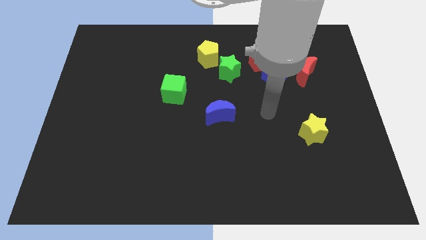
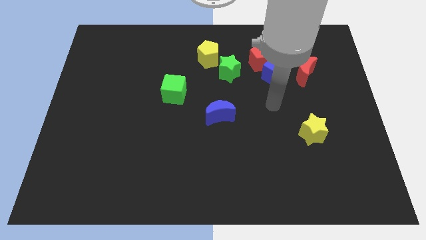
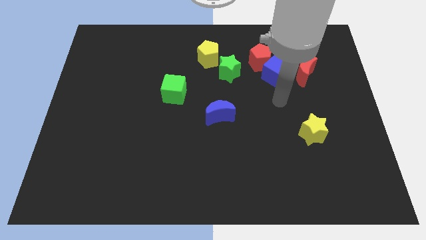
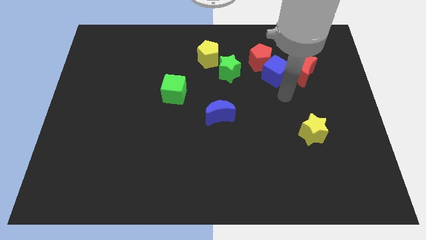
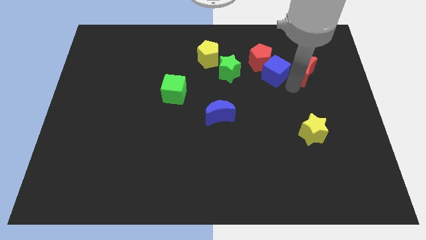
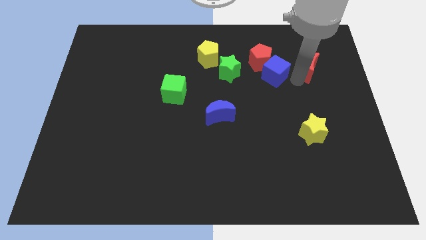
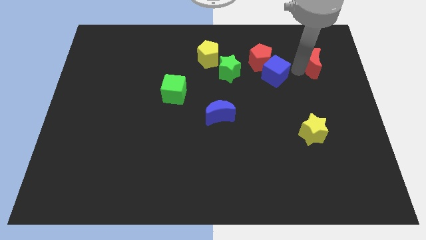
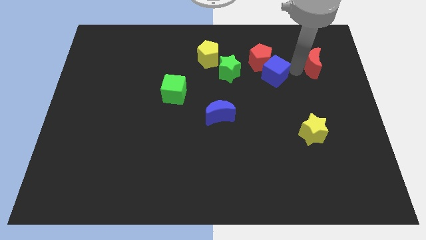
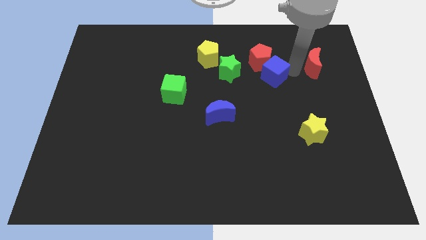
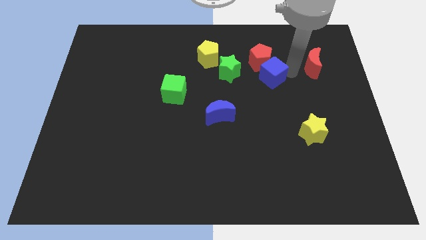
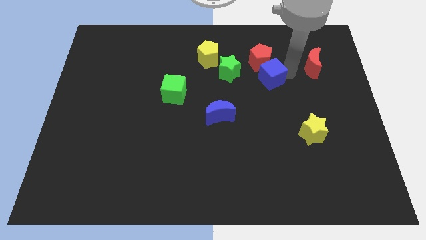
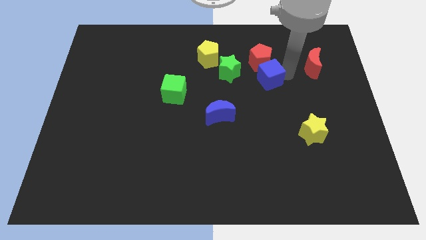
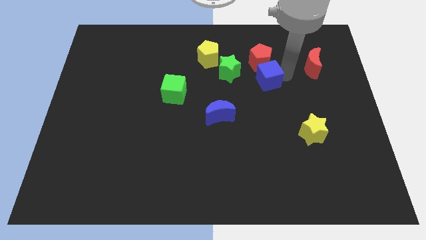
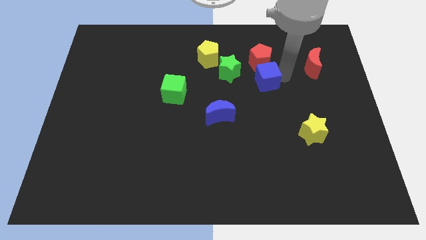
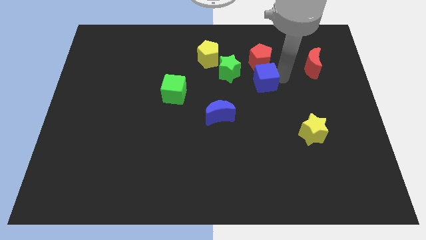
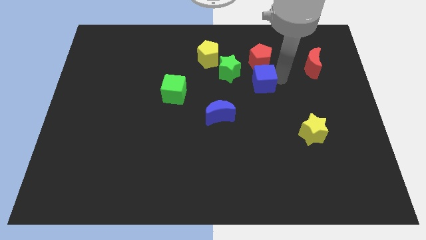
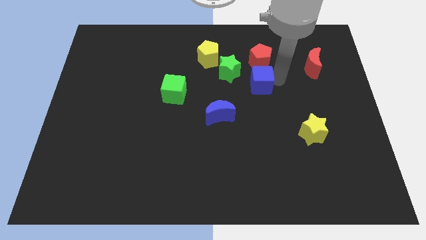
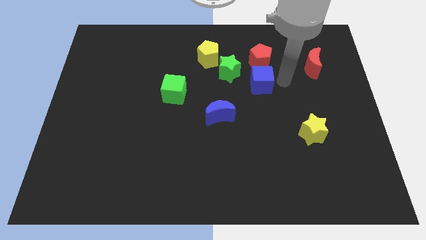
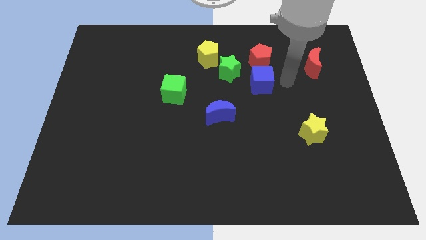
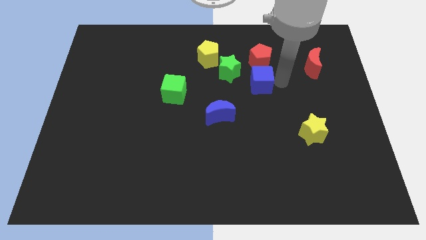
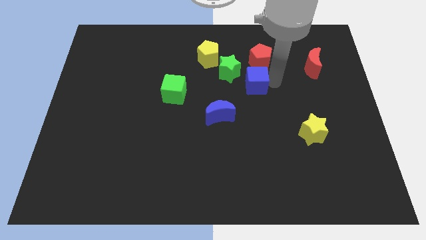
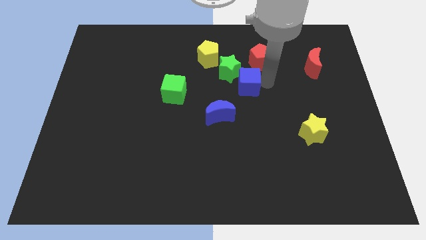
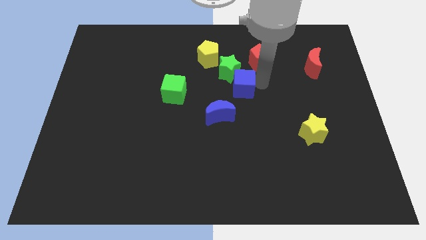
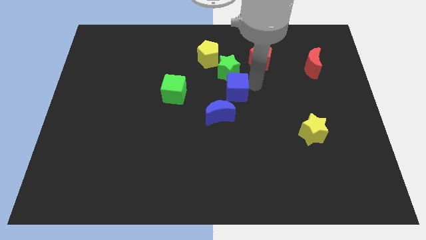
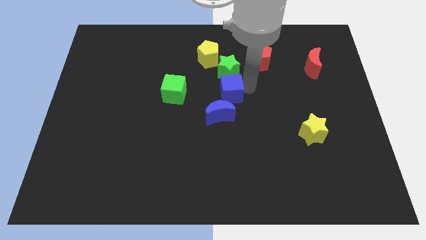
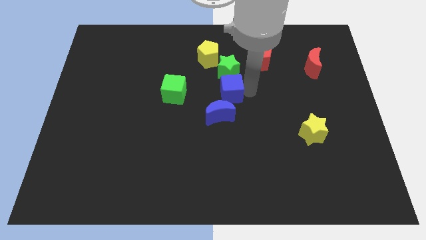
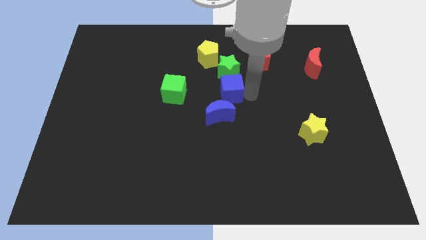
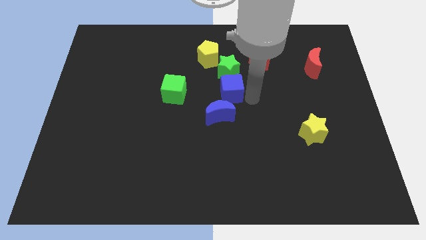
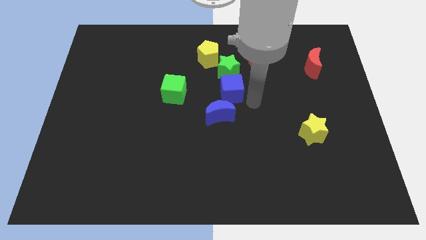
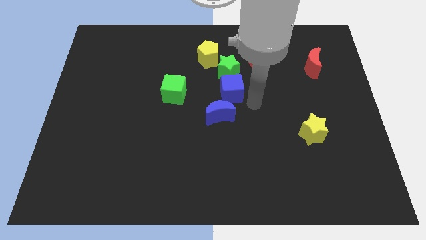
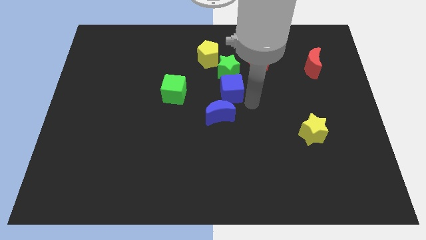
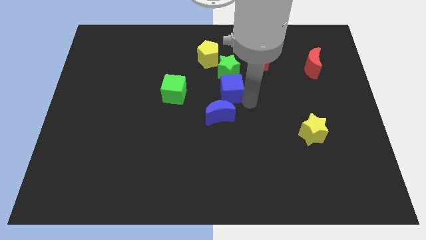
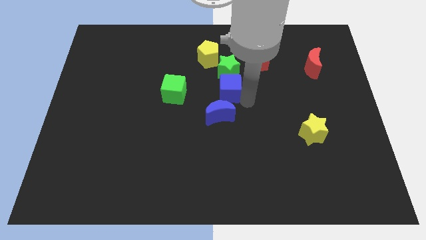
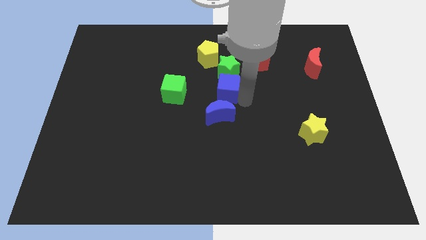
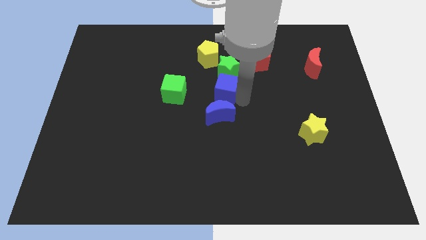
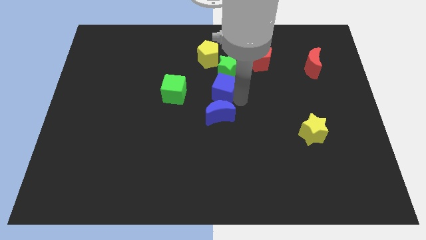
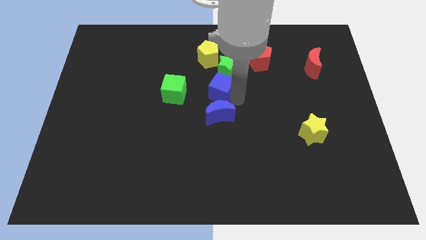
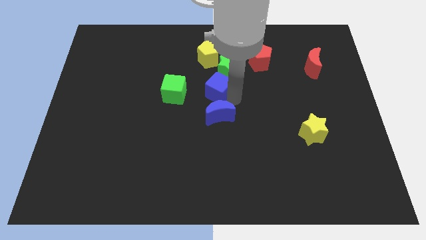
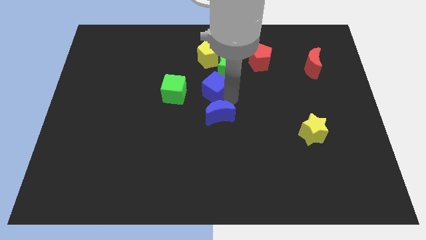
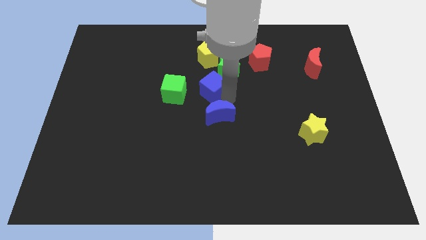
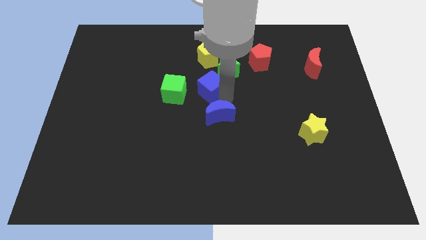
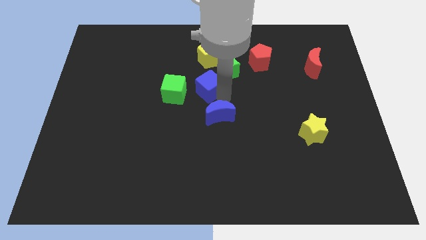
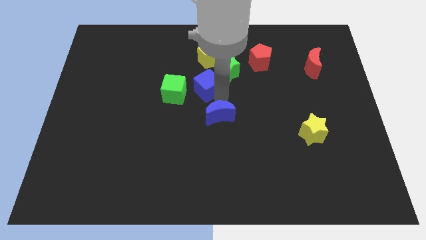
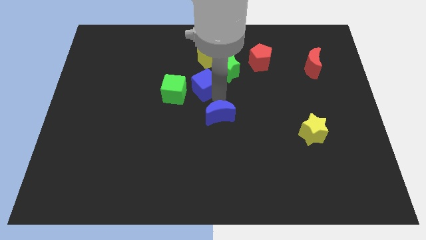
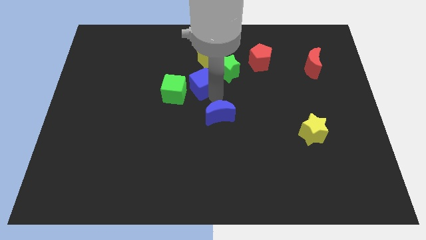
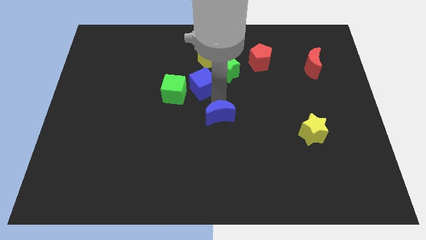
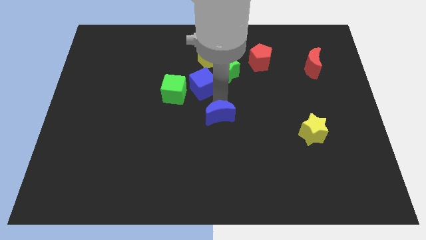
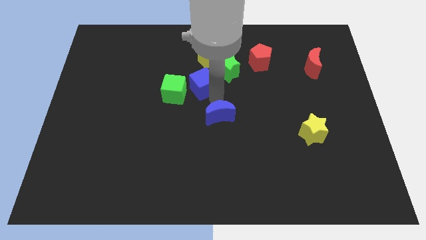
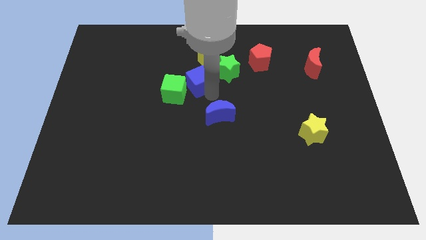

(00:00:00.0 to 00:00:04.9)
push the blue cube to the bottom left of the yellow pentagon

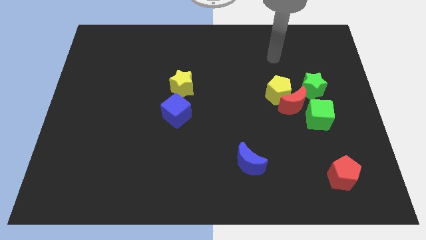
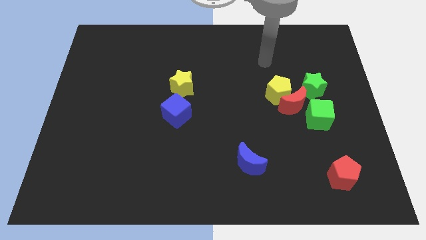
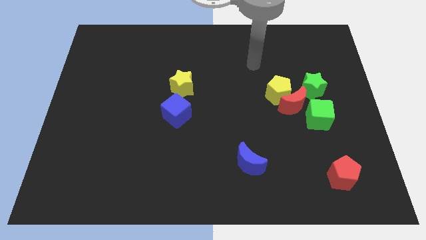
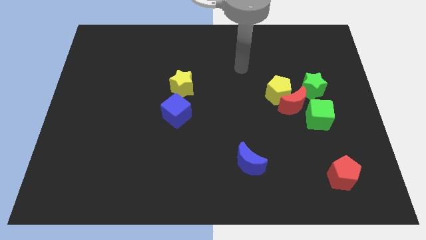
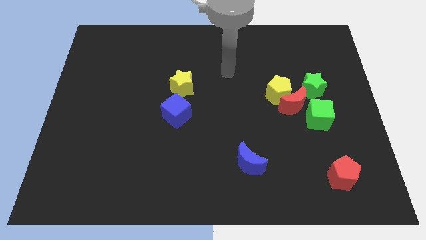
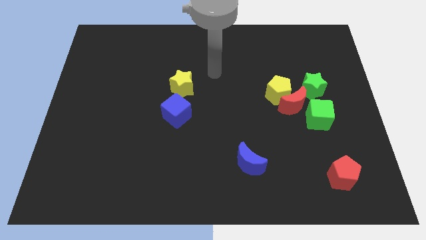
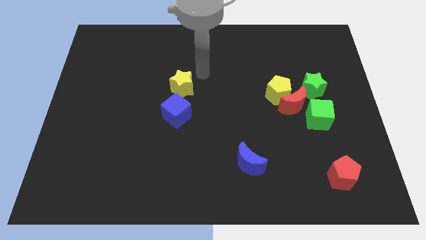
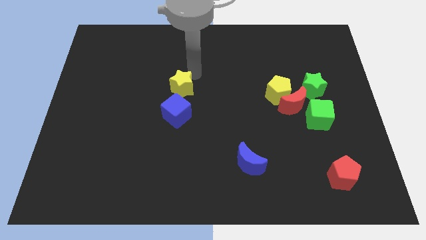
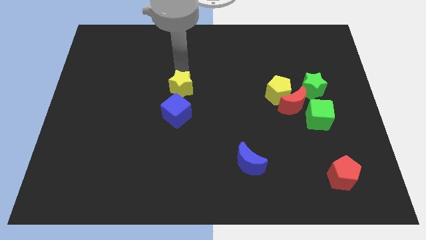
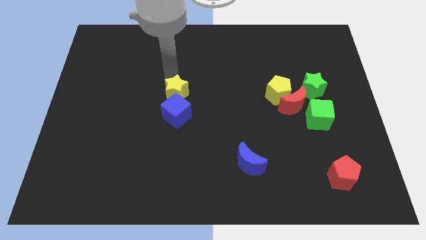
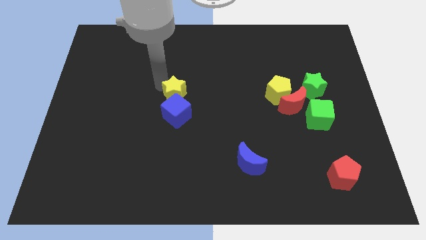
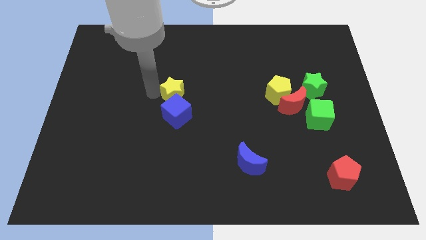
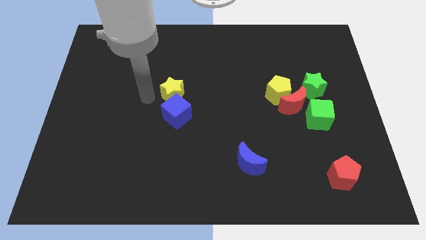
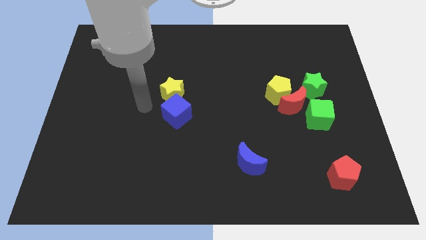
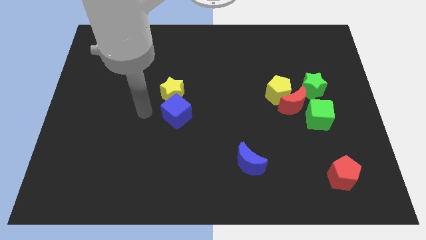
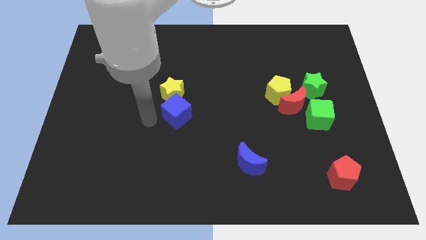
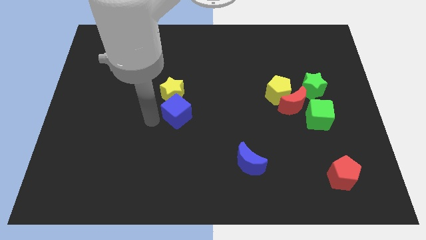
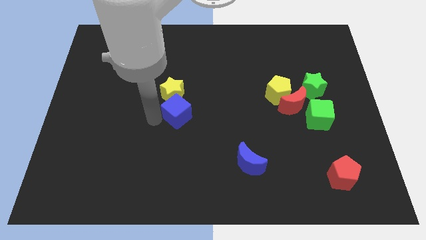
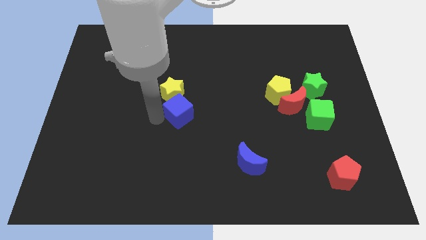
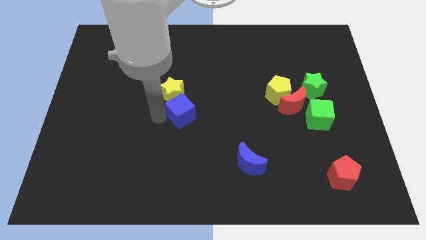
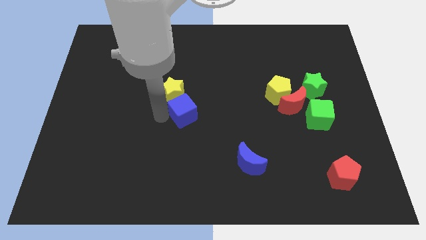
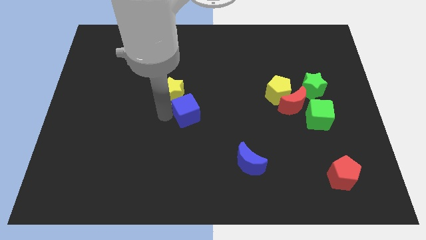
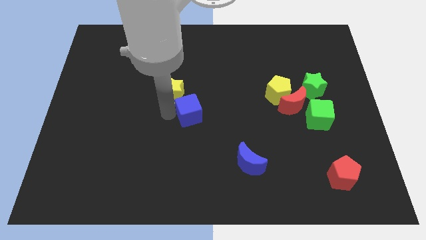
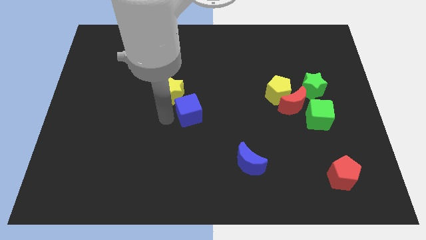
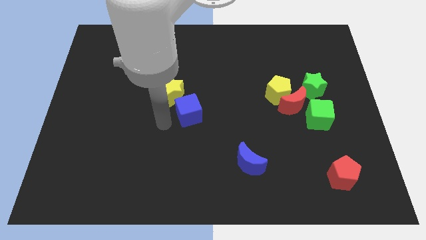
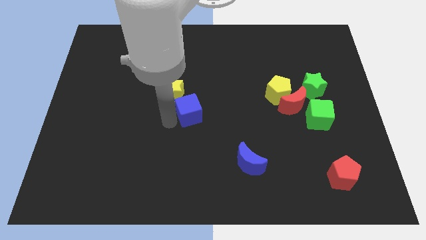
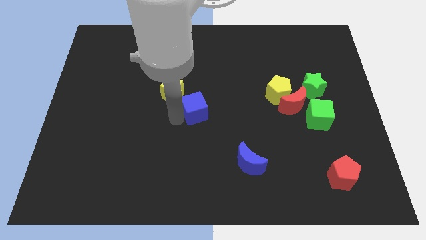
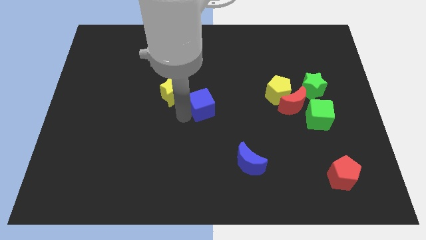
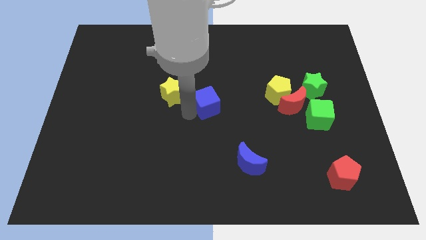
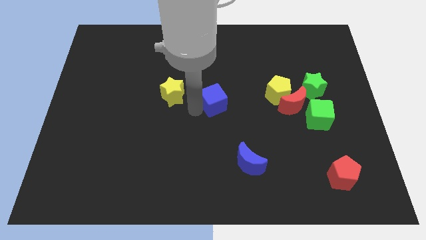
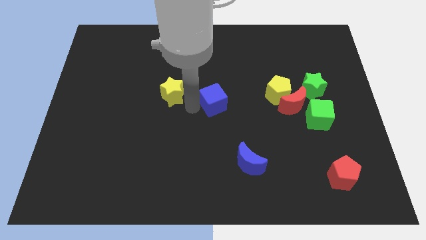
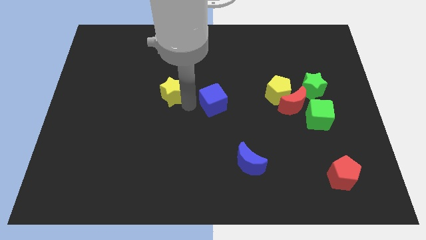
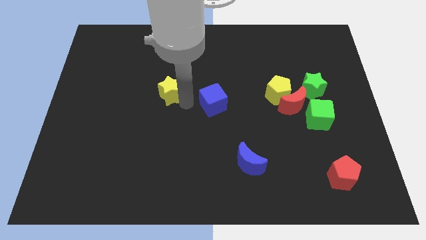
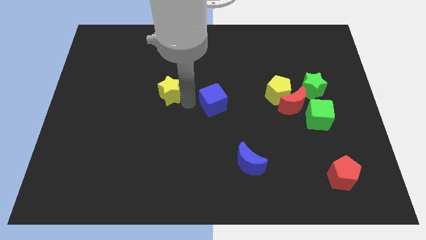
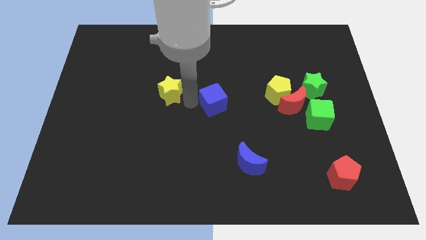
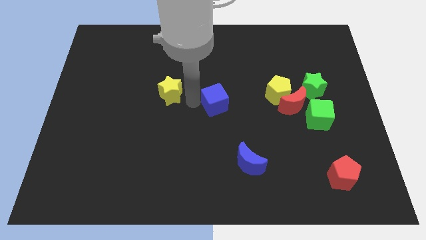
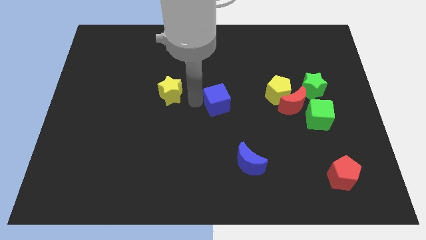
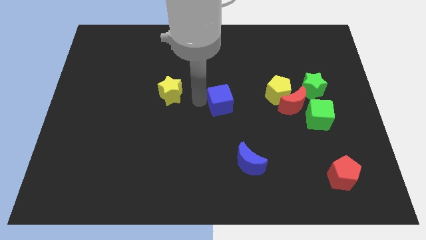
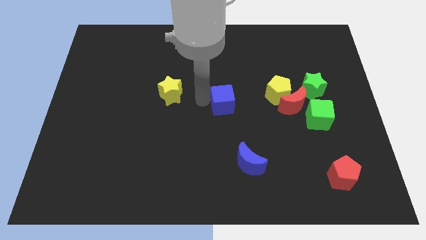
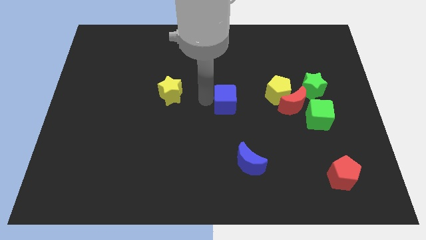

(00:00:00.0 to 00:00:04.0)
put the blue cube left of the red moon
